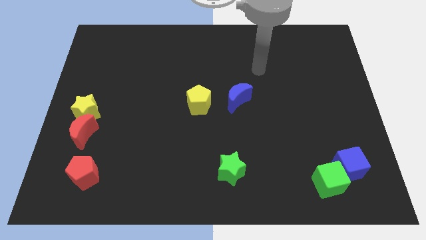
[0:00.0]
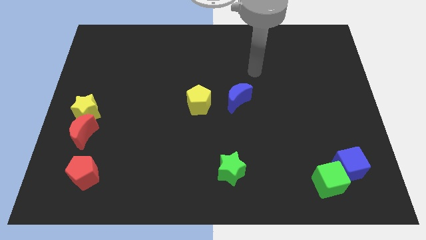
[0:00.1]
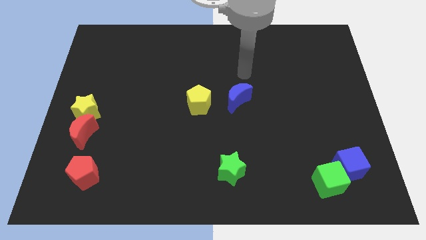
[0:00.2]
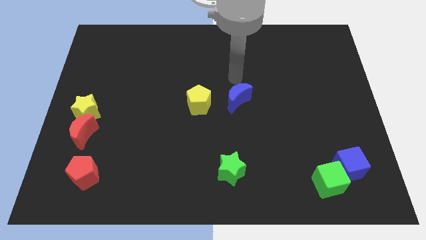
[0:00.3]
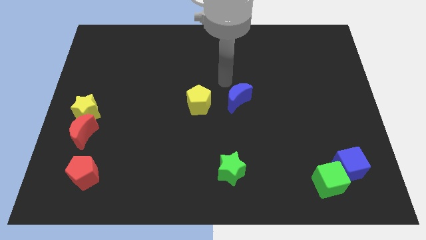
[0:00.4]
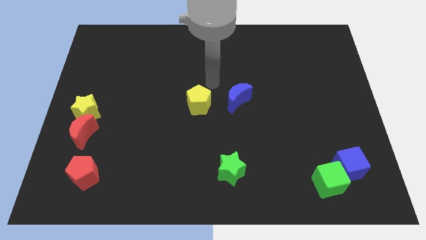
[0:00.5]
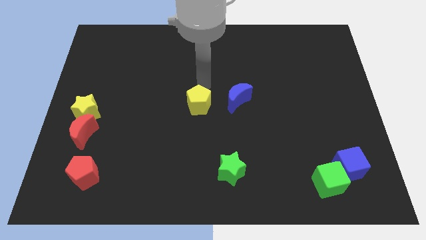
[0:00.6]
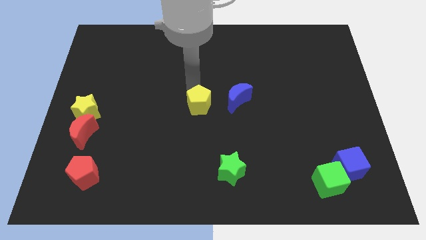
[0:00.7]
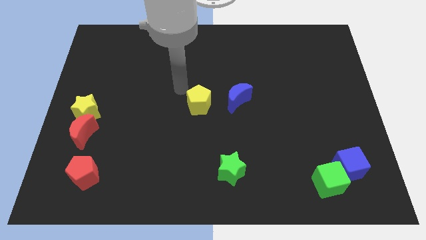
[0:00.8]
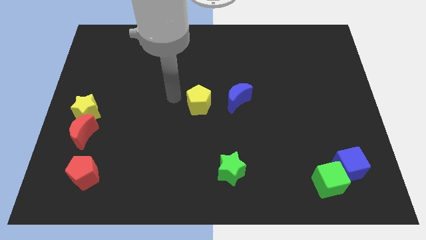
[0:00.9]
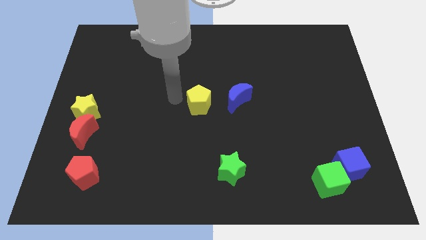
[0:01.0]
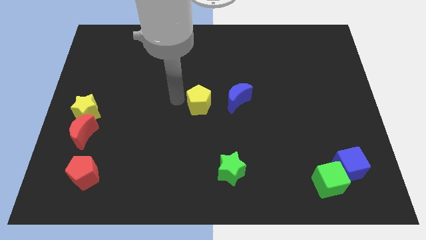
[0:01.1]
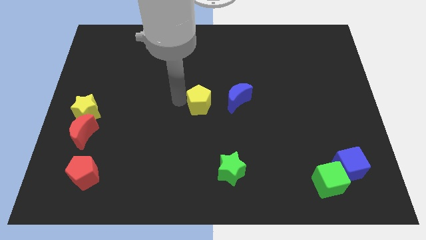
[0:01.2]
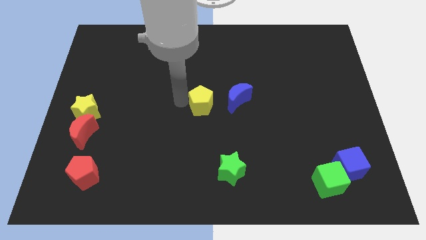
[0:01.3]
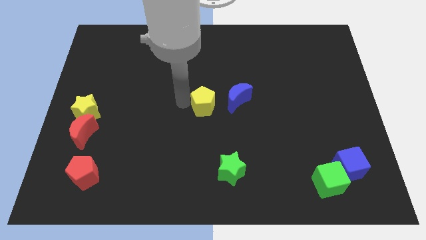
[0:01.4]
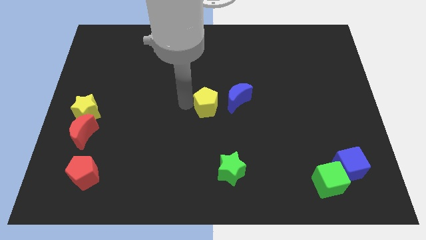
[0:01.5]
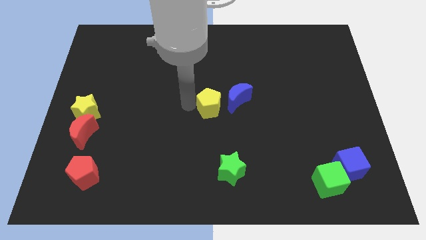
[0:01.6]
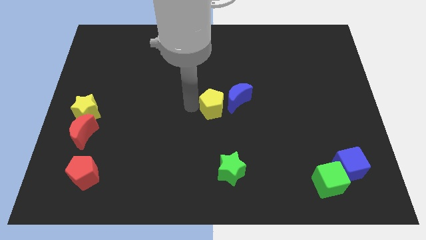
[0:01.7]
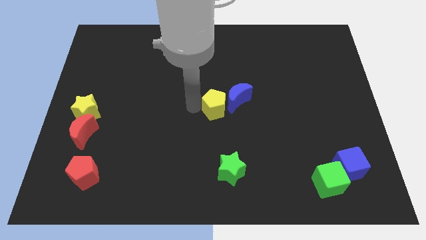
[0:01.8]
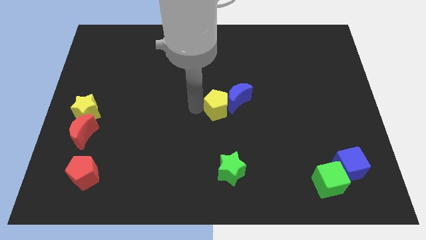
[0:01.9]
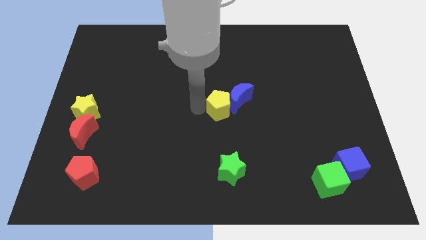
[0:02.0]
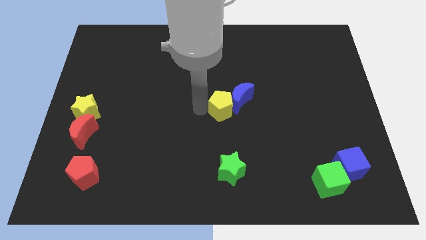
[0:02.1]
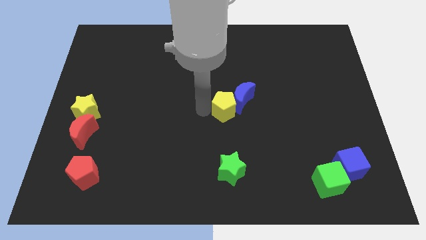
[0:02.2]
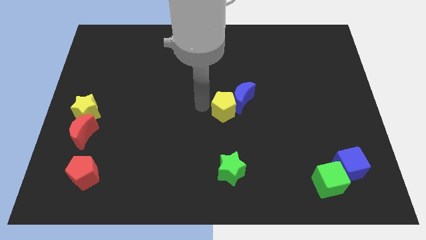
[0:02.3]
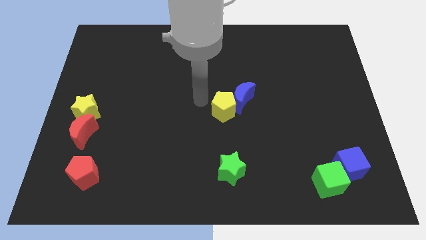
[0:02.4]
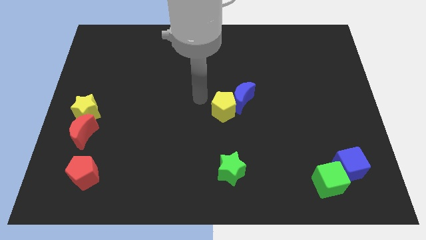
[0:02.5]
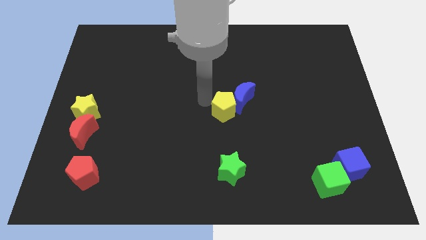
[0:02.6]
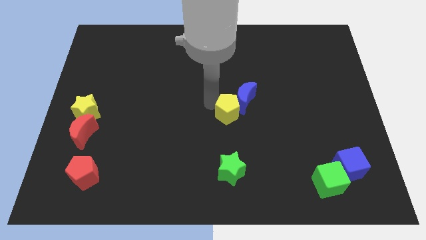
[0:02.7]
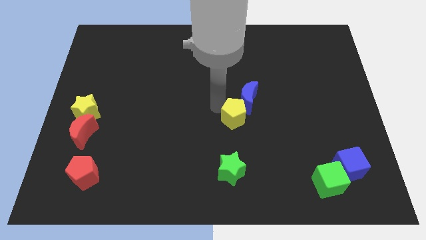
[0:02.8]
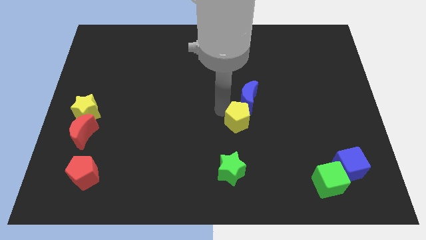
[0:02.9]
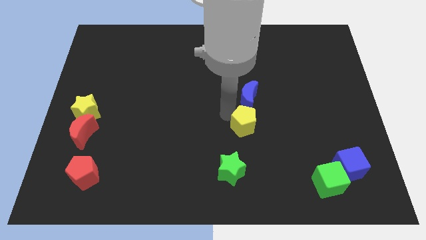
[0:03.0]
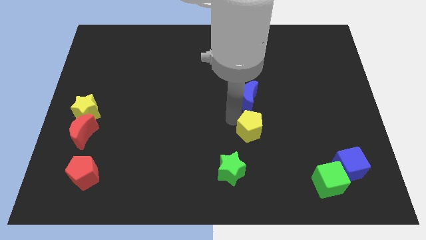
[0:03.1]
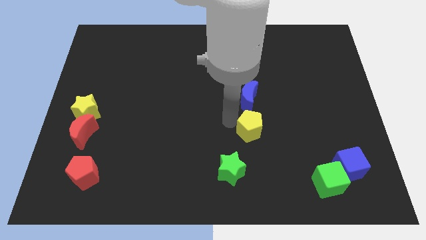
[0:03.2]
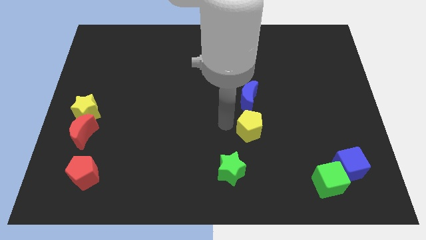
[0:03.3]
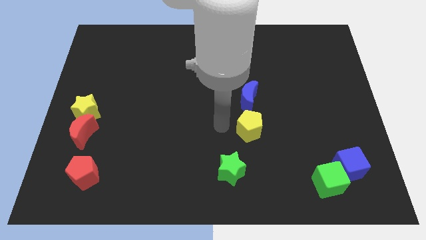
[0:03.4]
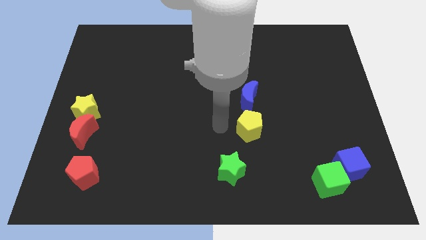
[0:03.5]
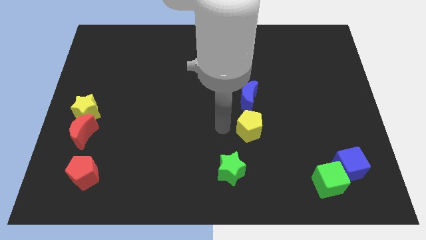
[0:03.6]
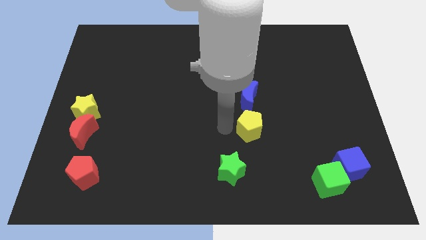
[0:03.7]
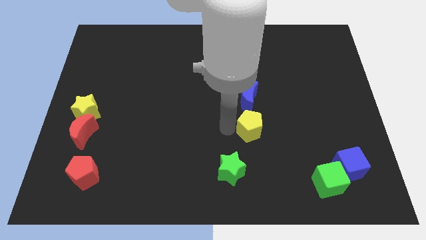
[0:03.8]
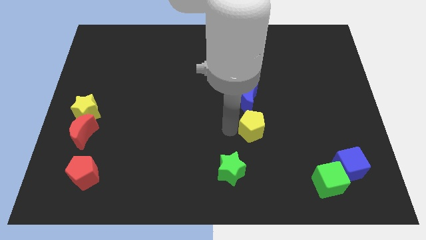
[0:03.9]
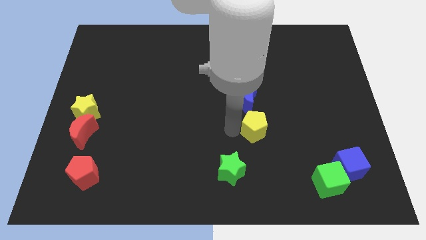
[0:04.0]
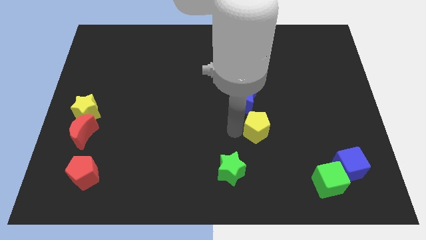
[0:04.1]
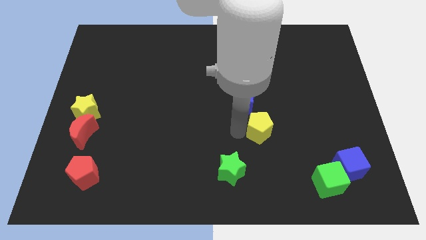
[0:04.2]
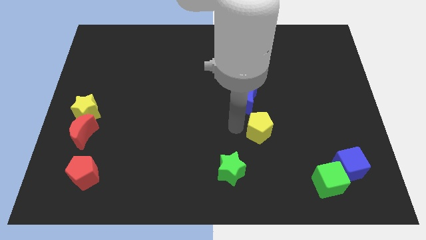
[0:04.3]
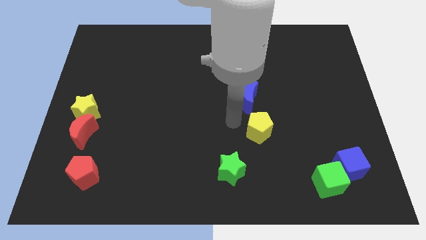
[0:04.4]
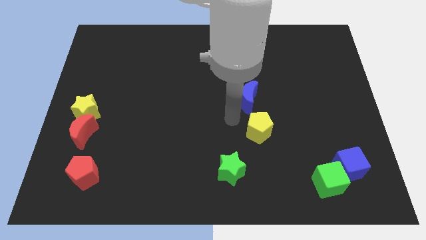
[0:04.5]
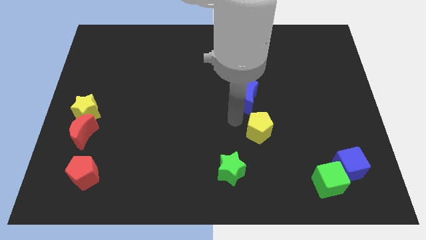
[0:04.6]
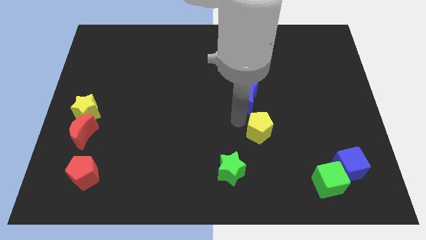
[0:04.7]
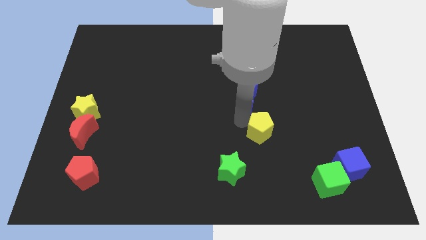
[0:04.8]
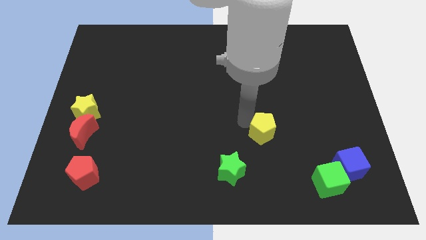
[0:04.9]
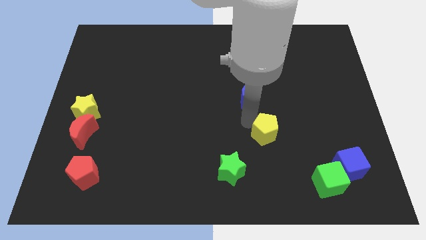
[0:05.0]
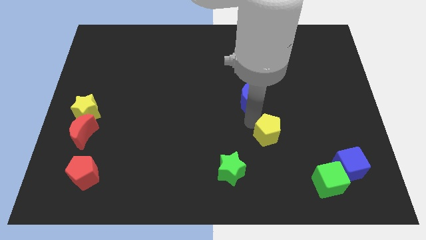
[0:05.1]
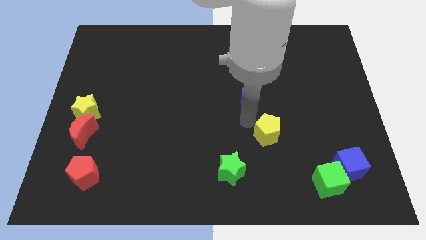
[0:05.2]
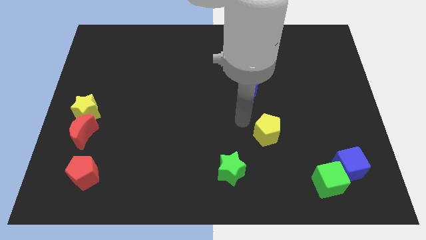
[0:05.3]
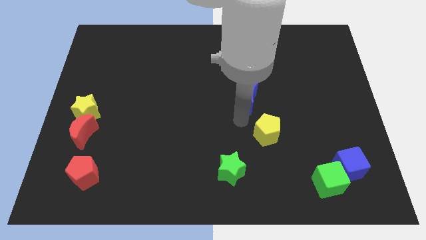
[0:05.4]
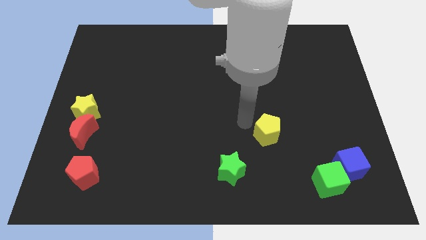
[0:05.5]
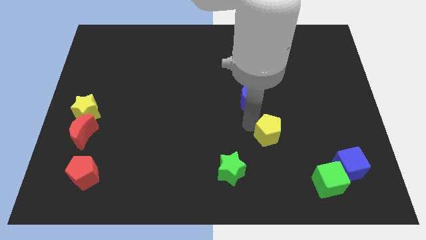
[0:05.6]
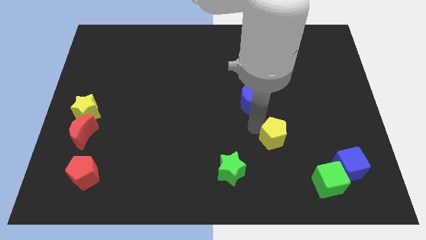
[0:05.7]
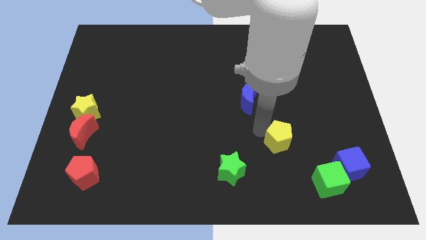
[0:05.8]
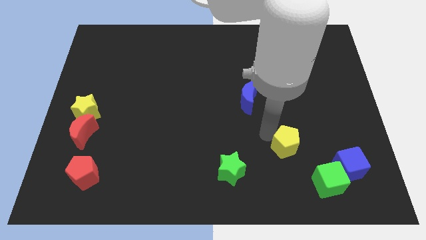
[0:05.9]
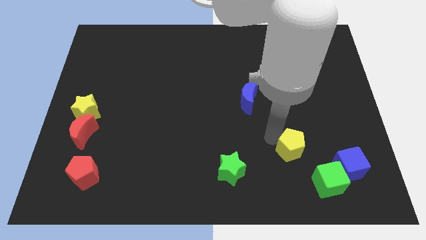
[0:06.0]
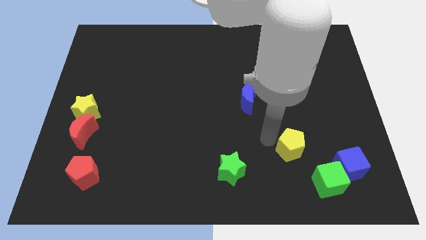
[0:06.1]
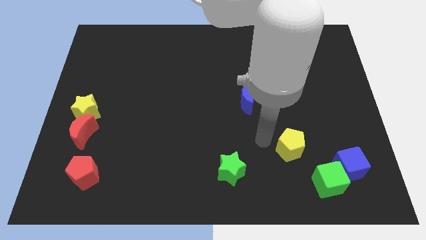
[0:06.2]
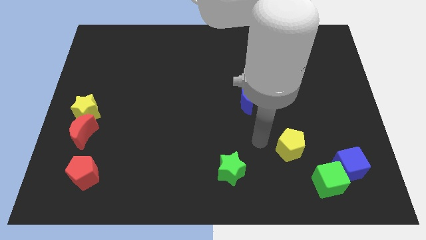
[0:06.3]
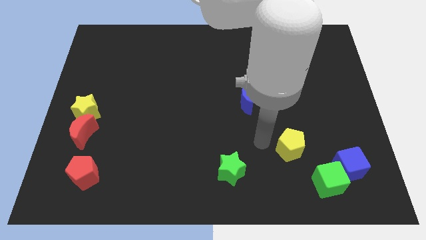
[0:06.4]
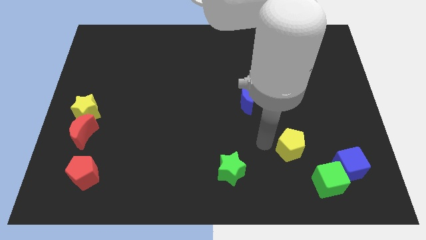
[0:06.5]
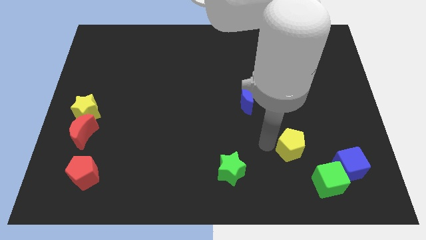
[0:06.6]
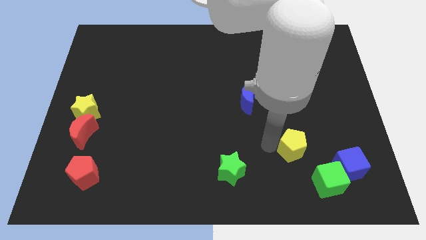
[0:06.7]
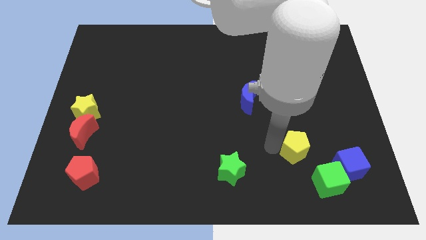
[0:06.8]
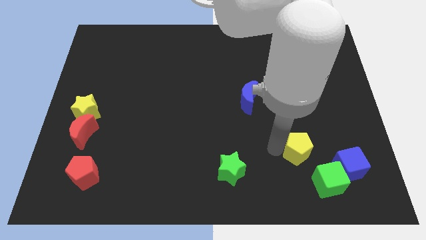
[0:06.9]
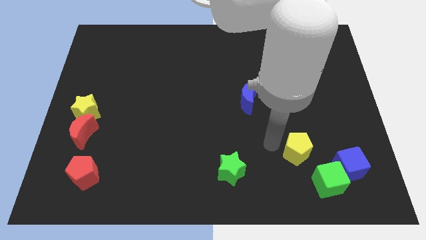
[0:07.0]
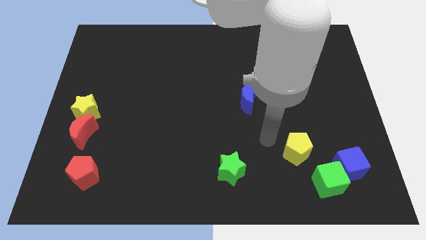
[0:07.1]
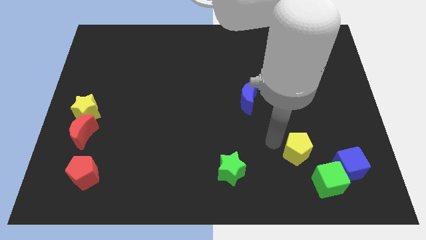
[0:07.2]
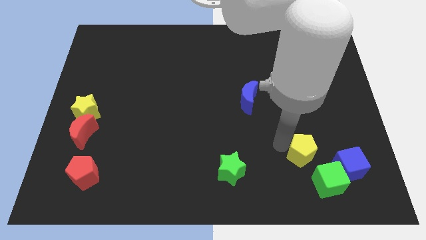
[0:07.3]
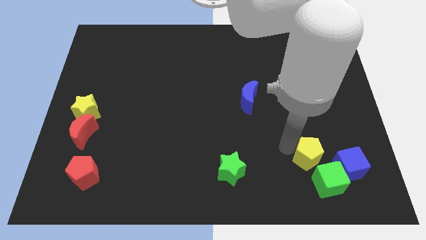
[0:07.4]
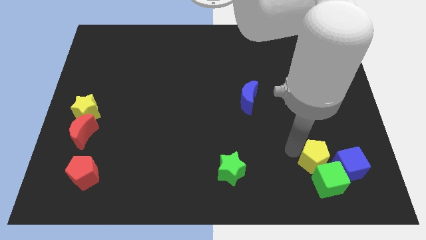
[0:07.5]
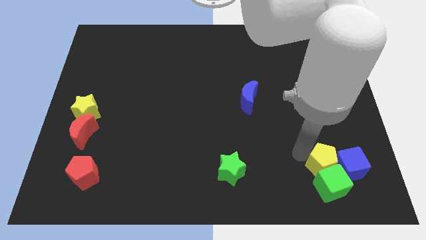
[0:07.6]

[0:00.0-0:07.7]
push the yellow pentagon towards the blue cube
